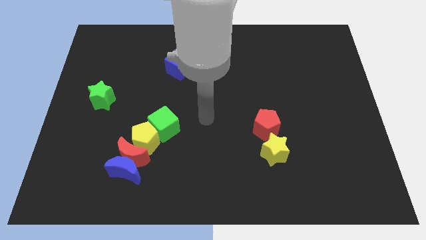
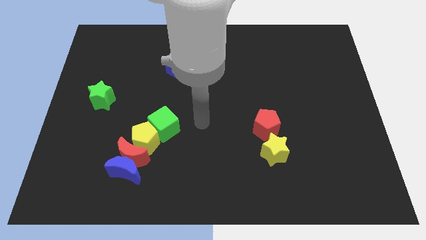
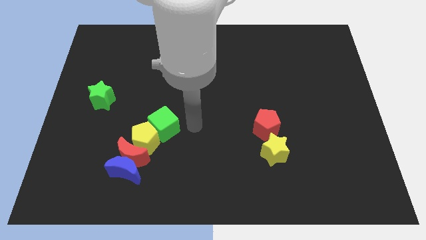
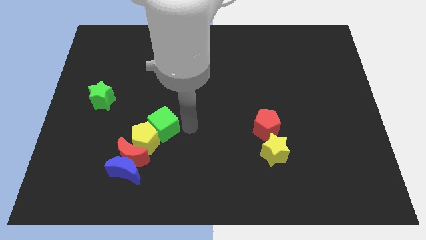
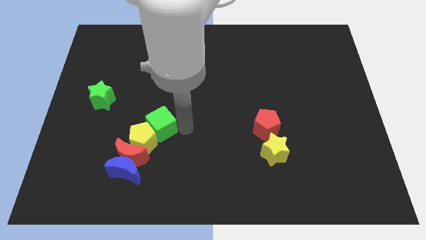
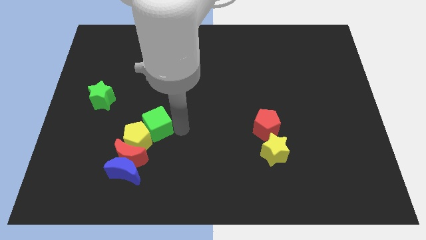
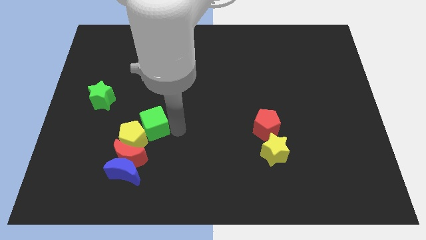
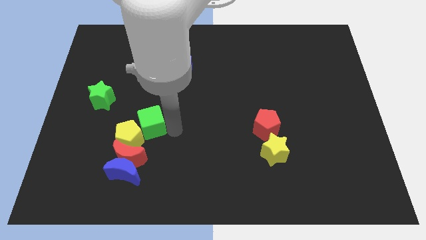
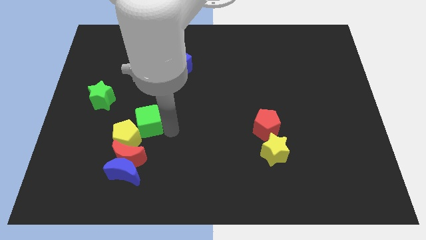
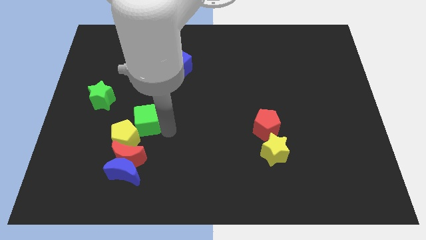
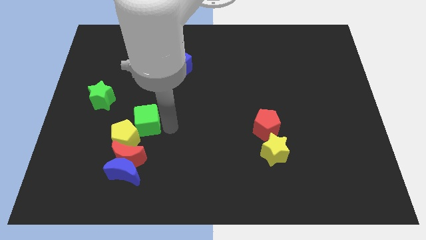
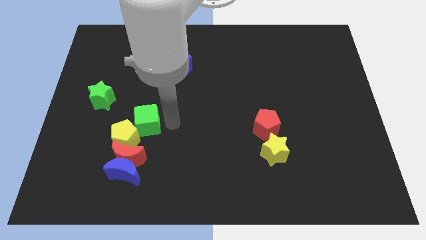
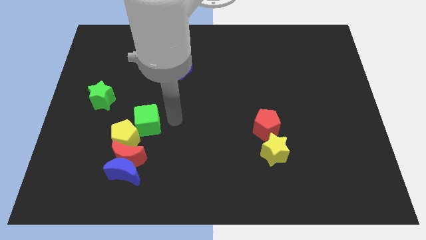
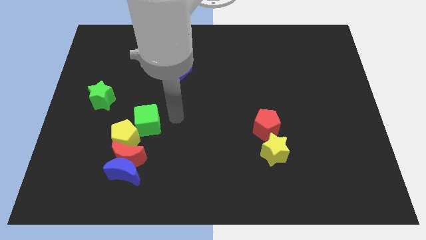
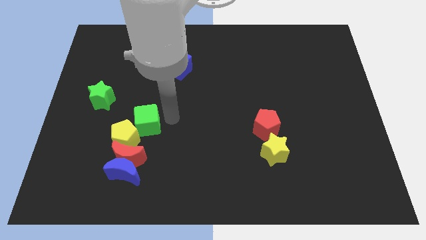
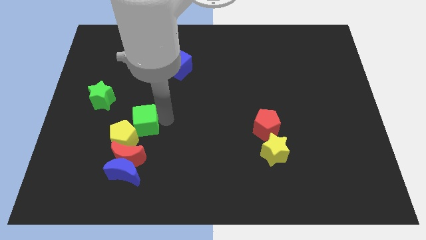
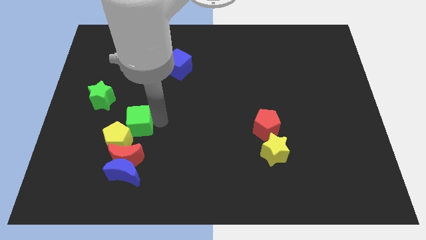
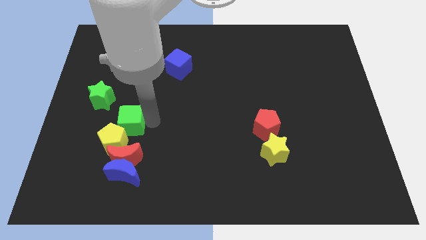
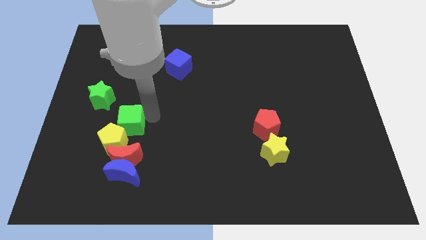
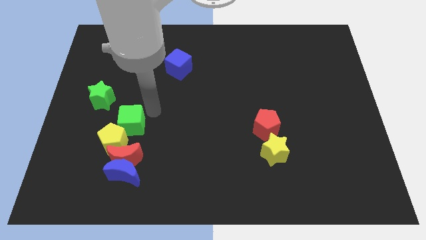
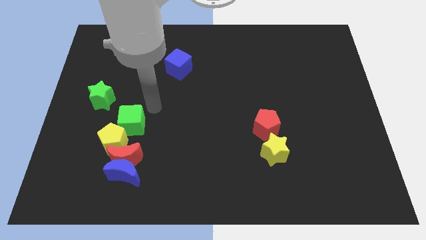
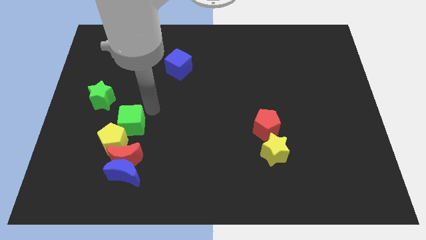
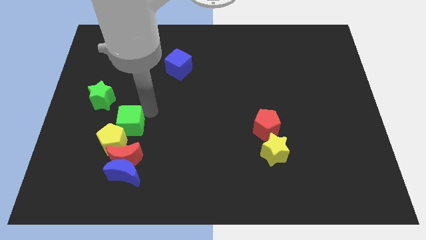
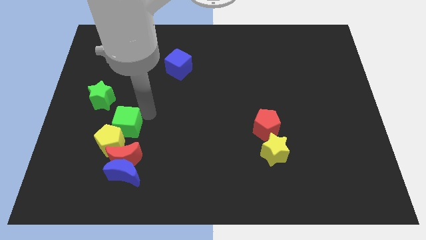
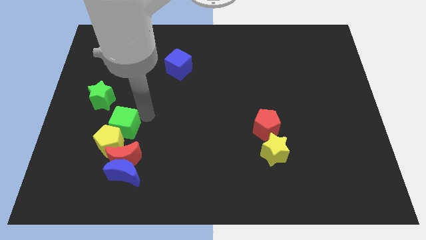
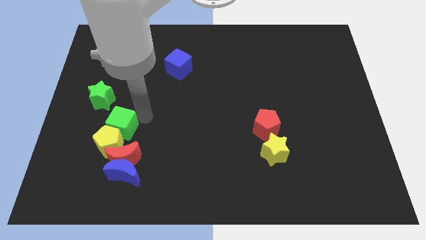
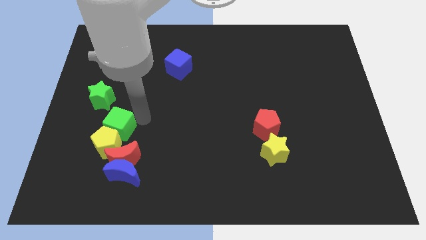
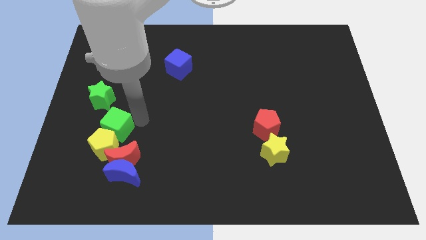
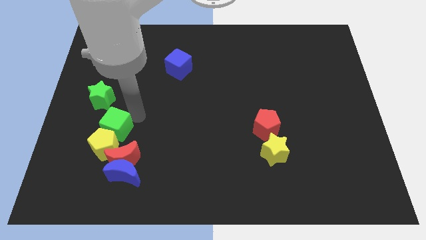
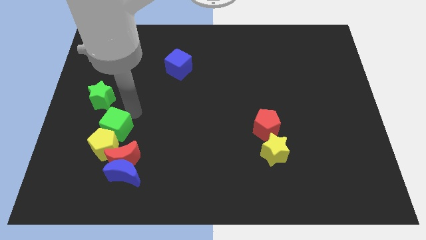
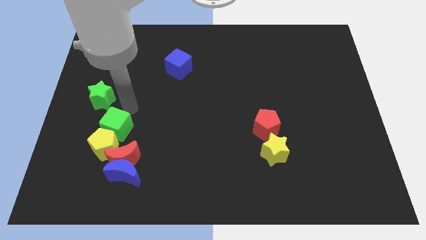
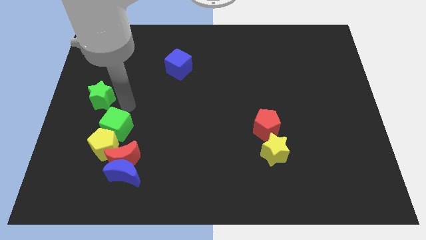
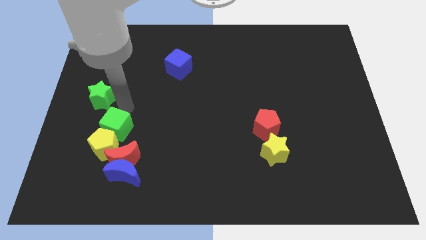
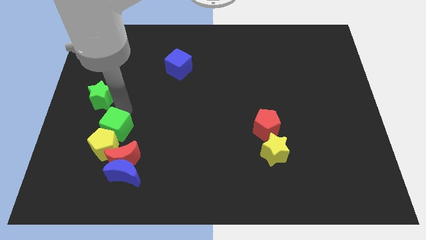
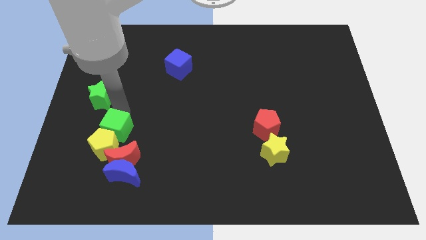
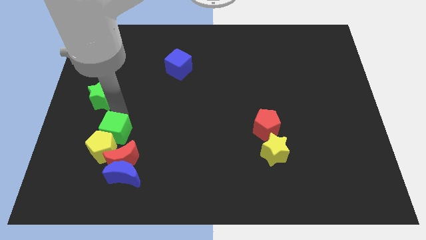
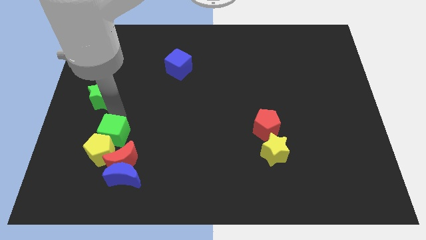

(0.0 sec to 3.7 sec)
slightly move the green cube down and then left

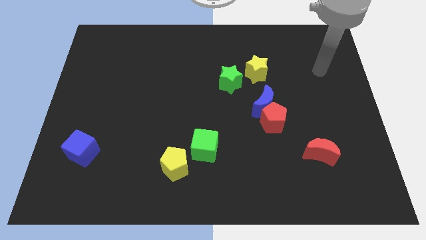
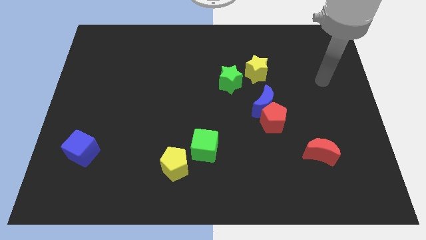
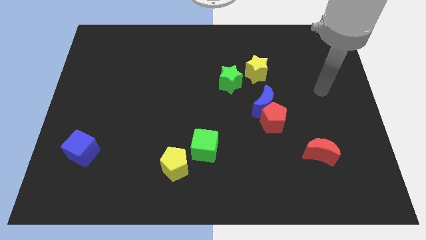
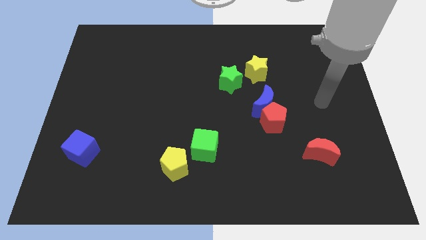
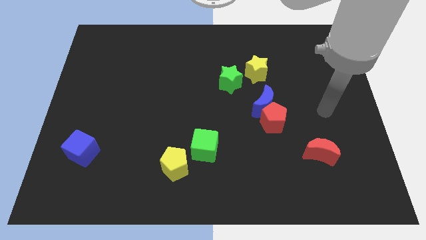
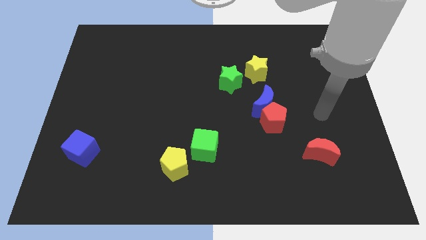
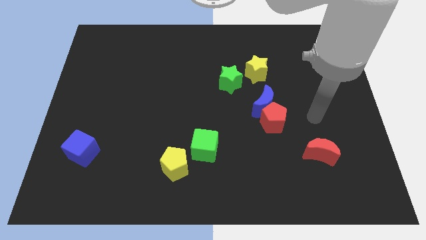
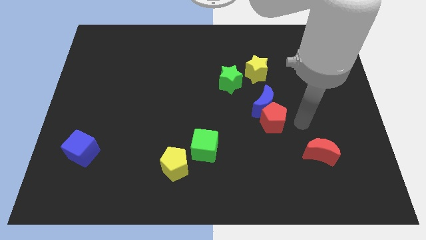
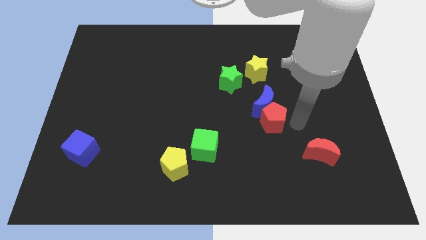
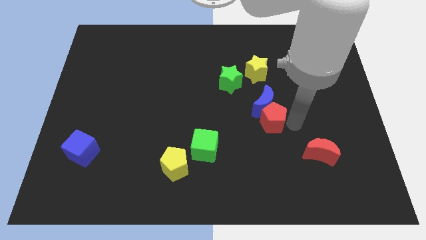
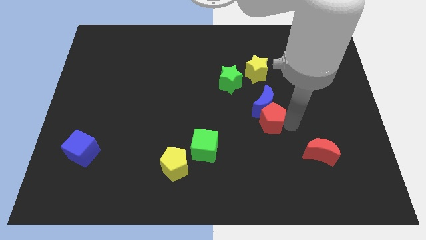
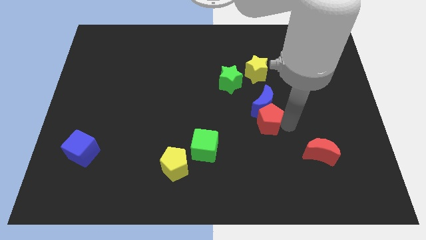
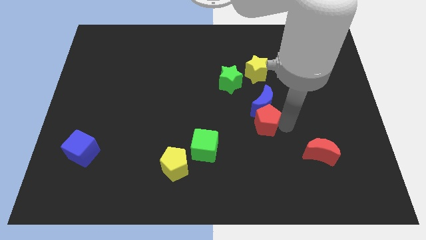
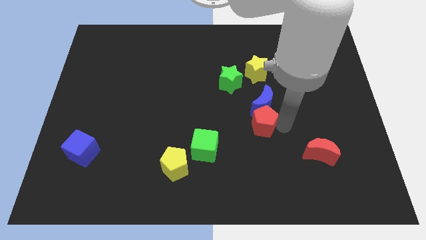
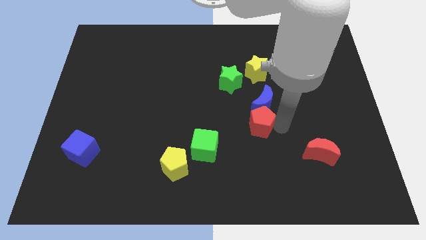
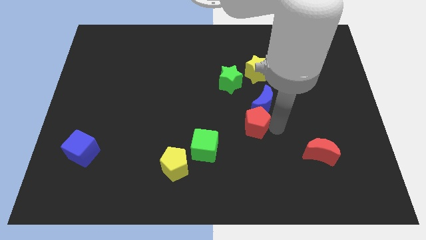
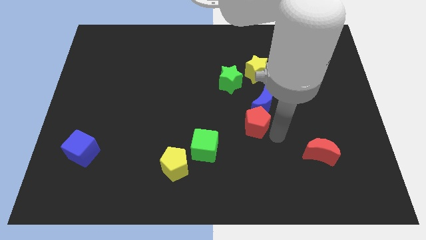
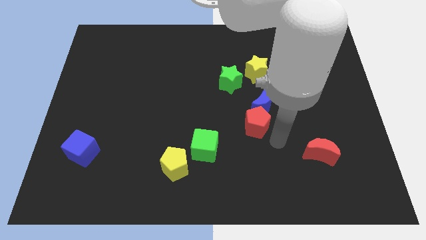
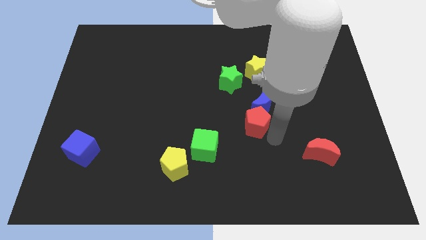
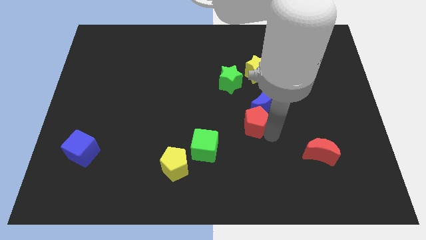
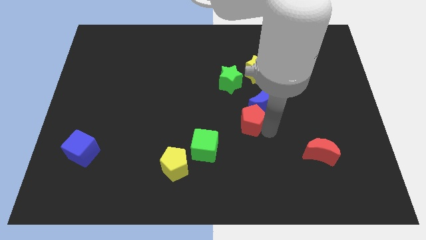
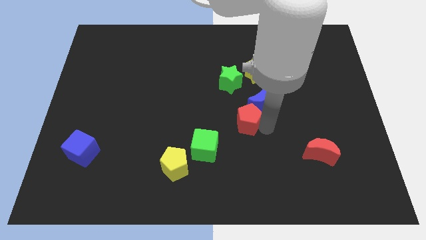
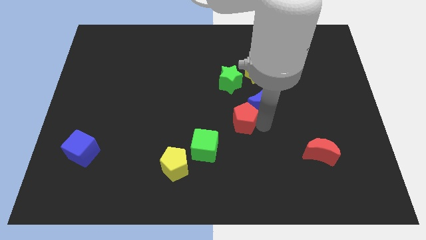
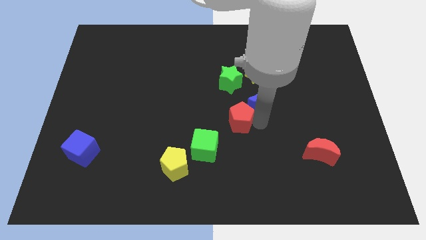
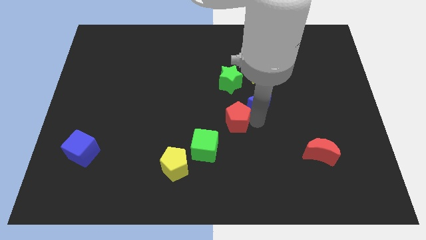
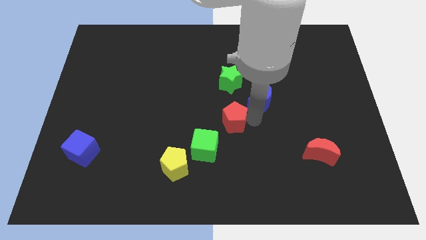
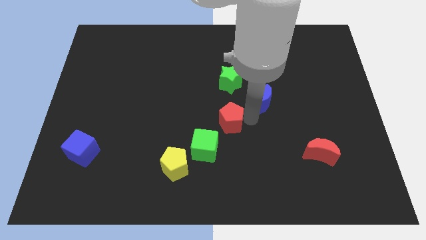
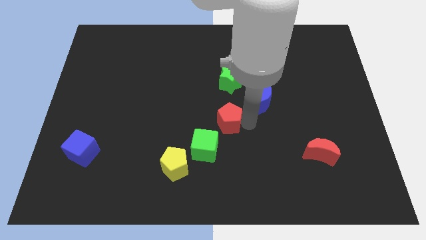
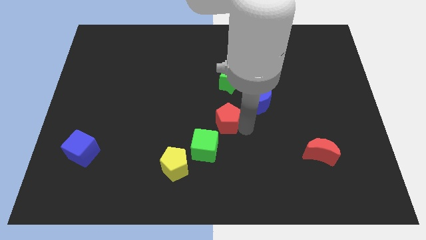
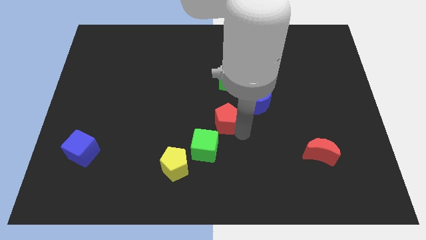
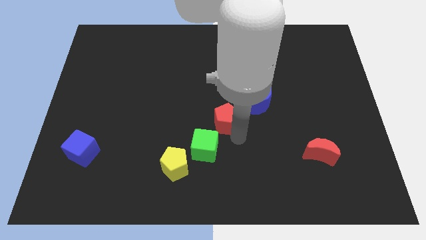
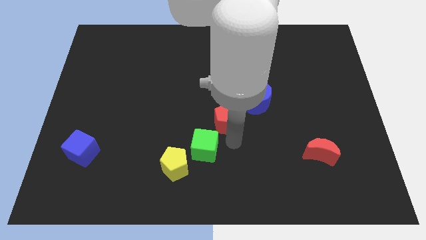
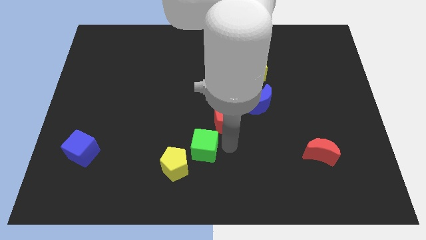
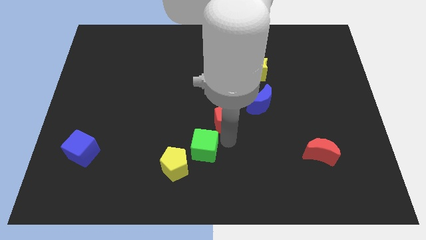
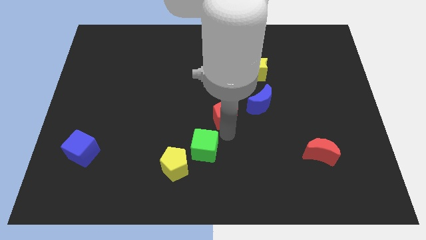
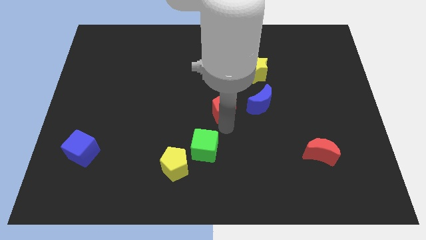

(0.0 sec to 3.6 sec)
slightly push the red pentagon up and then to the left

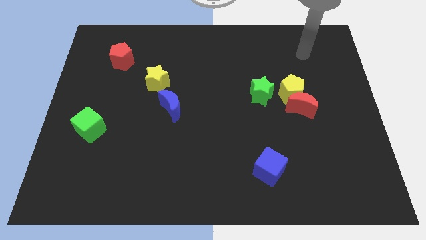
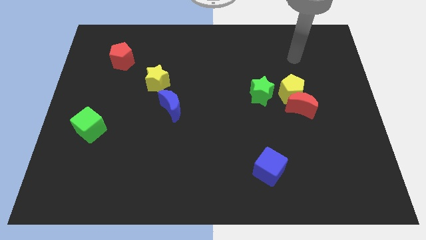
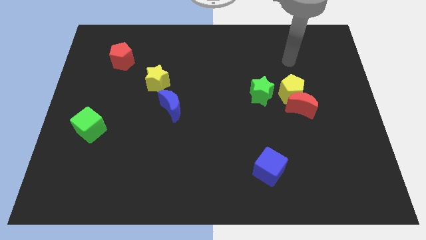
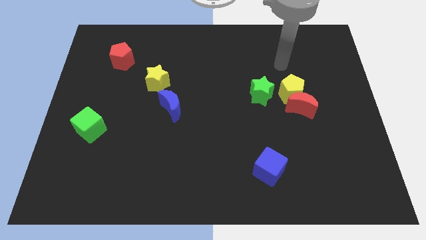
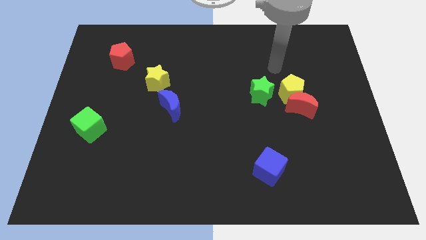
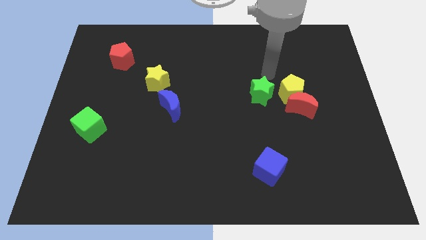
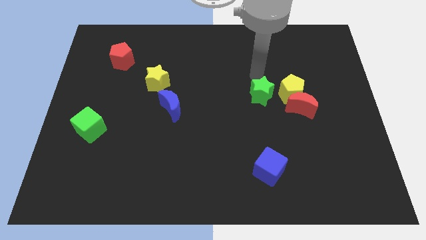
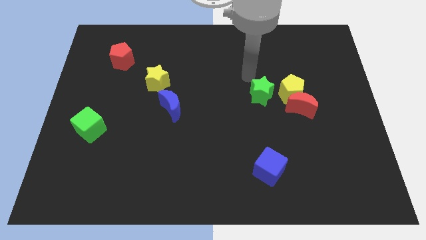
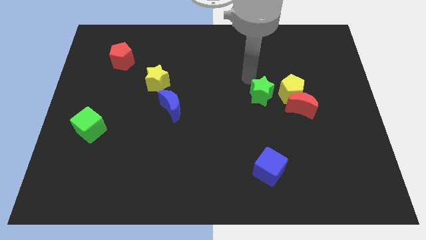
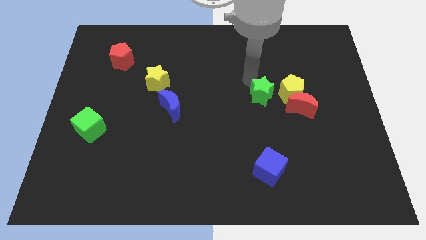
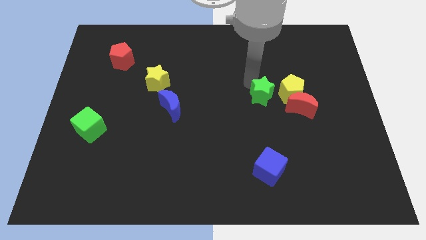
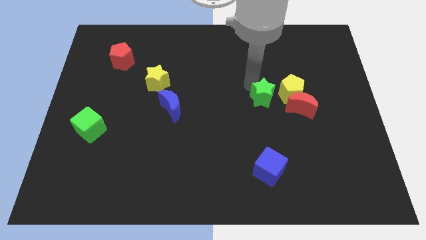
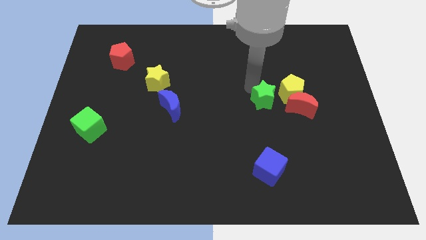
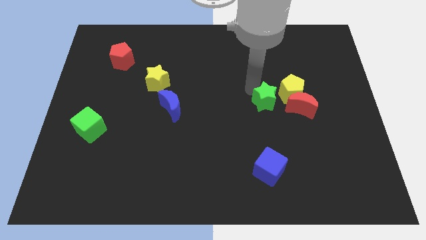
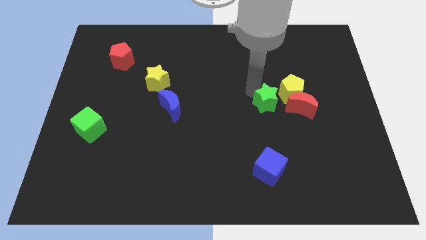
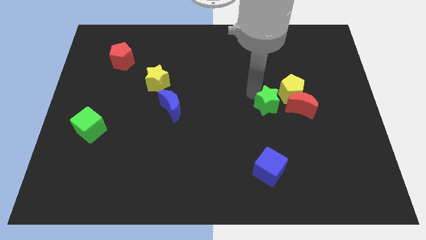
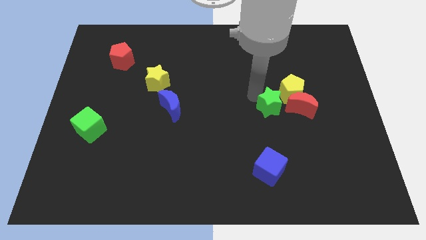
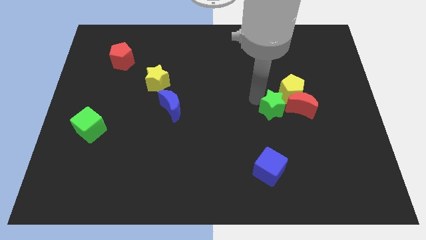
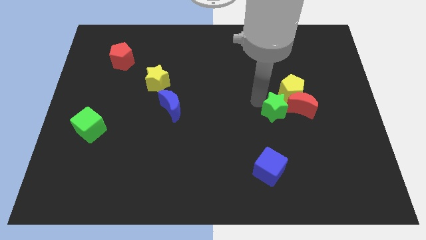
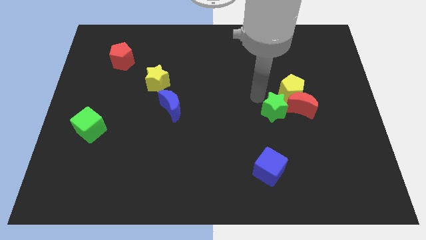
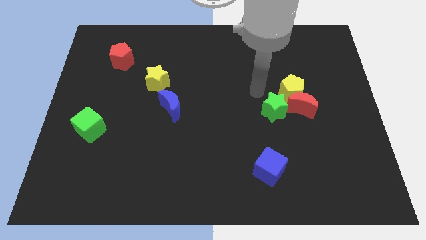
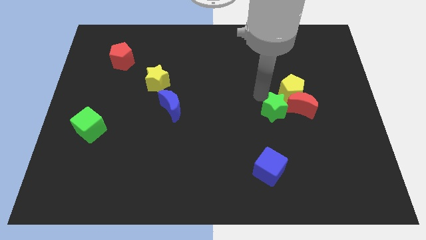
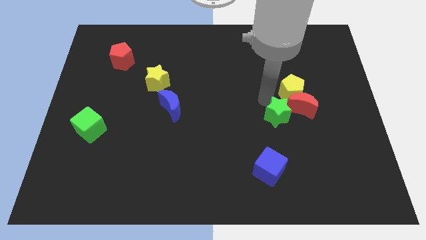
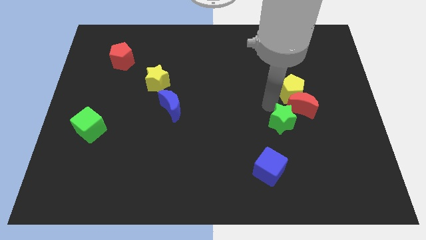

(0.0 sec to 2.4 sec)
move the green star downwards and right slightly
